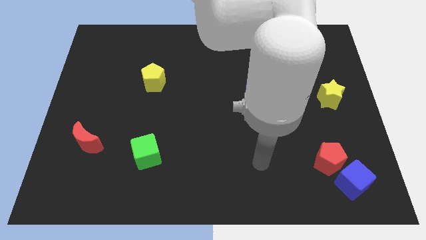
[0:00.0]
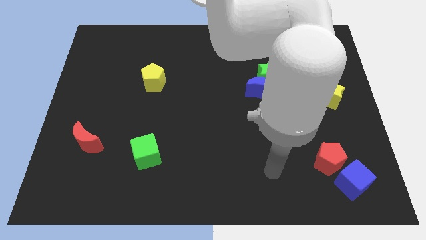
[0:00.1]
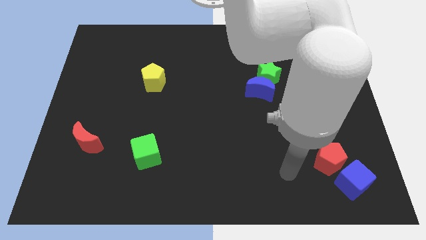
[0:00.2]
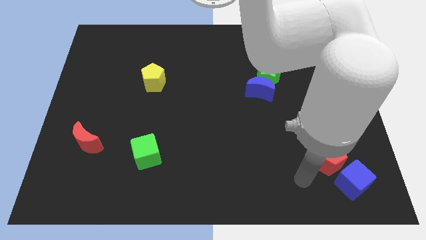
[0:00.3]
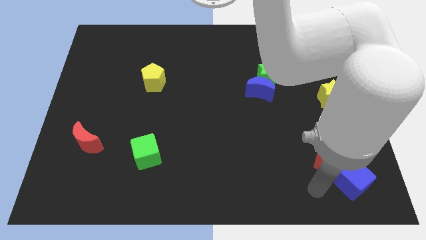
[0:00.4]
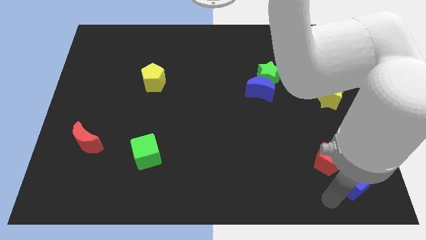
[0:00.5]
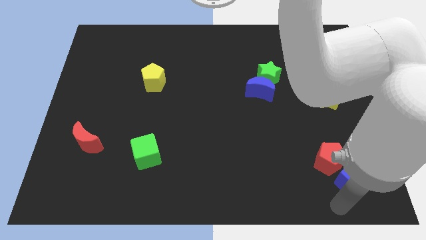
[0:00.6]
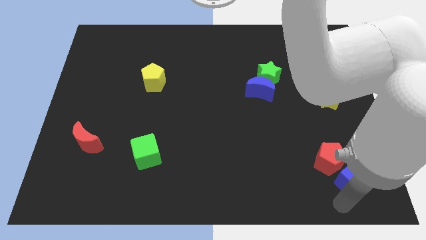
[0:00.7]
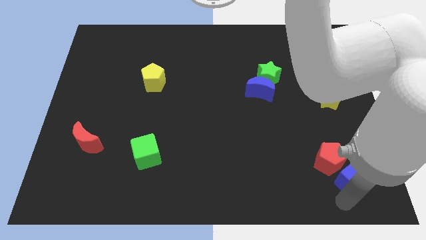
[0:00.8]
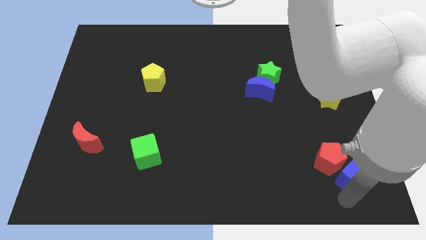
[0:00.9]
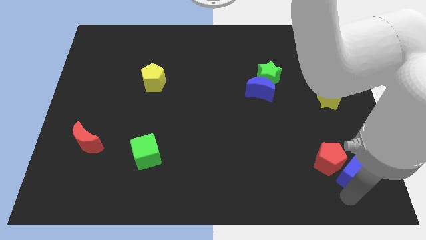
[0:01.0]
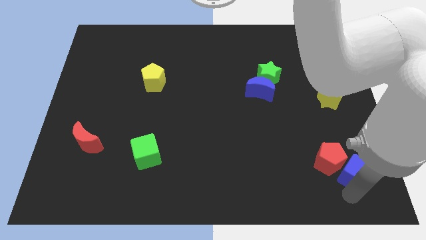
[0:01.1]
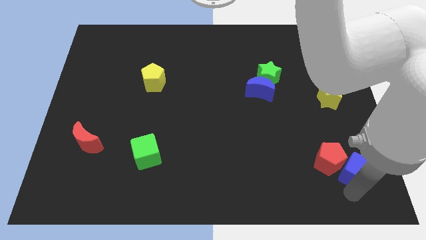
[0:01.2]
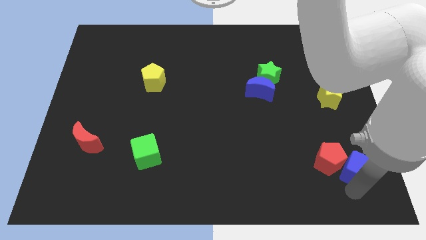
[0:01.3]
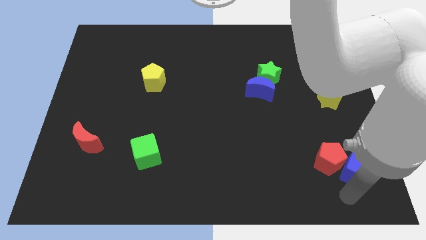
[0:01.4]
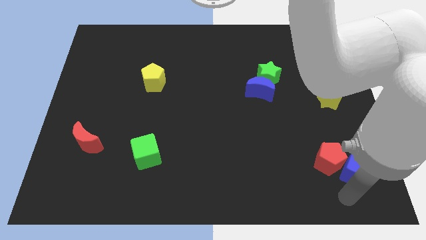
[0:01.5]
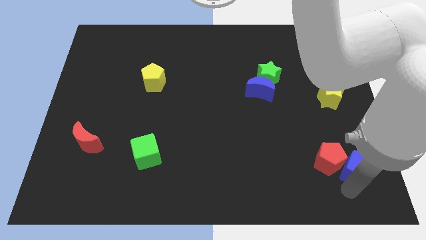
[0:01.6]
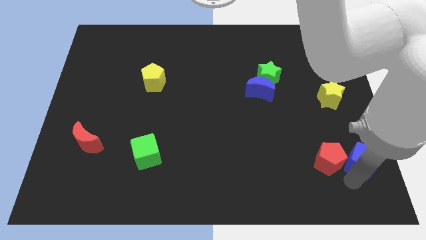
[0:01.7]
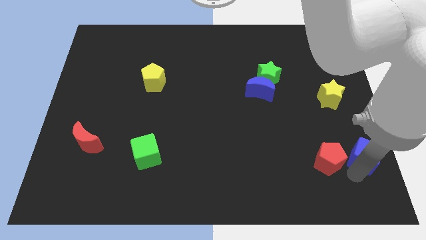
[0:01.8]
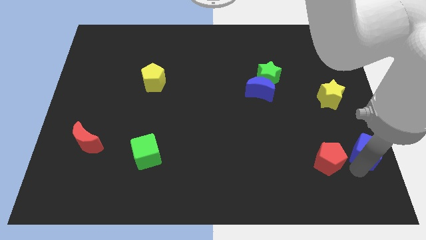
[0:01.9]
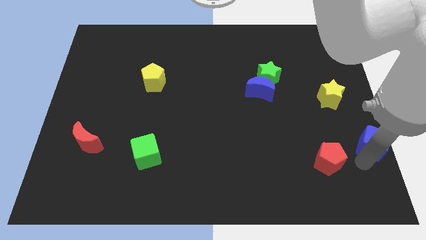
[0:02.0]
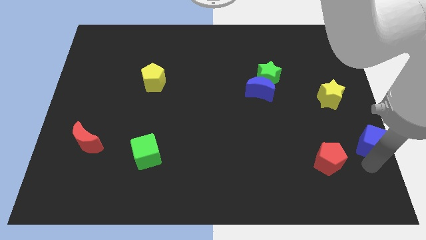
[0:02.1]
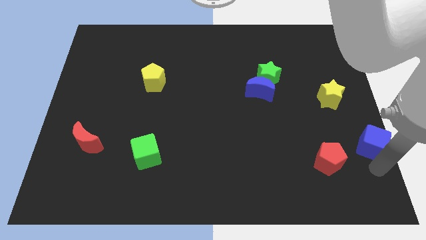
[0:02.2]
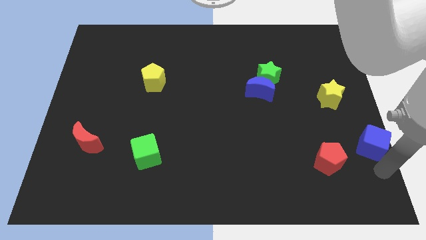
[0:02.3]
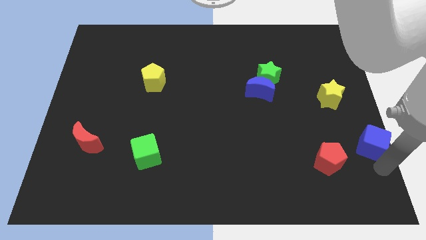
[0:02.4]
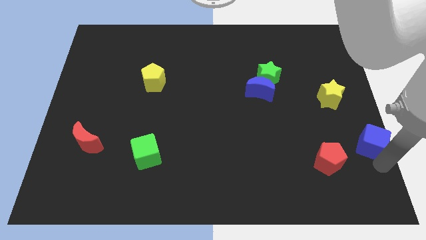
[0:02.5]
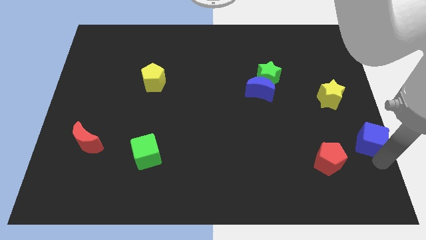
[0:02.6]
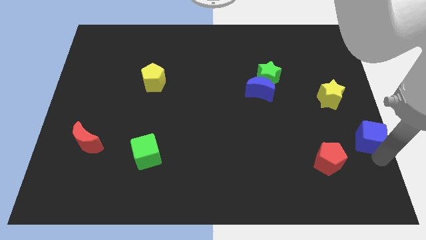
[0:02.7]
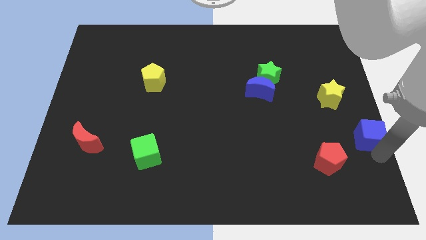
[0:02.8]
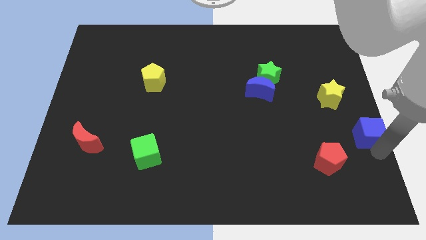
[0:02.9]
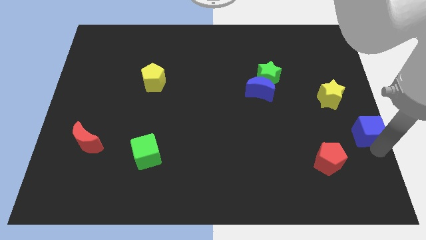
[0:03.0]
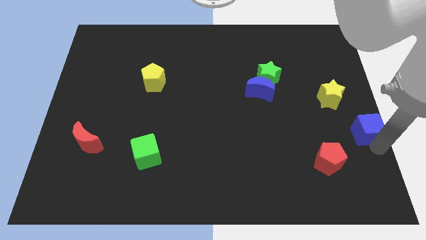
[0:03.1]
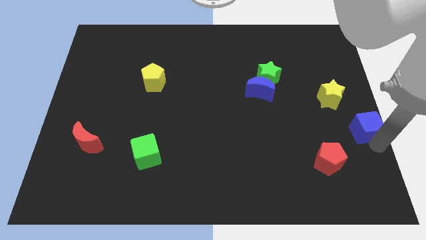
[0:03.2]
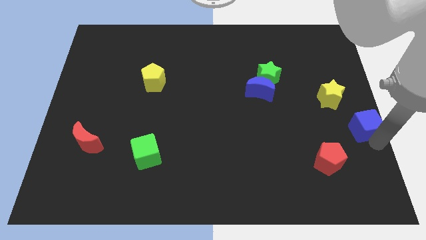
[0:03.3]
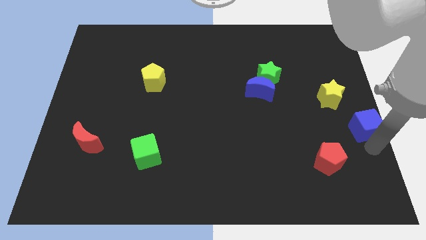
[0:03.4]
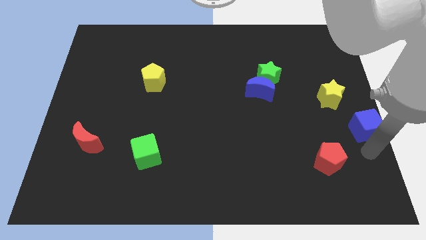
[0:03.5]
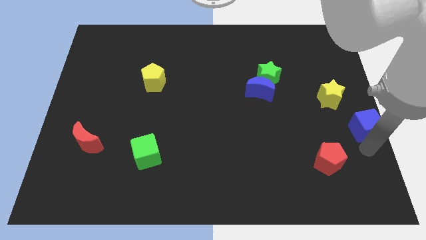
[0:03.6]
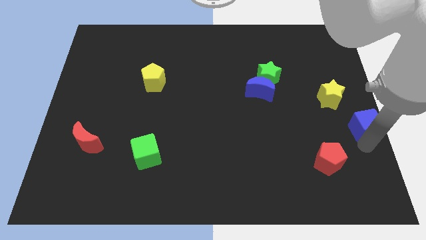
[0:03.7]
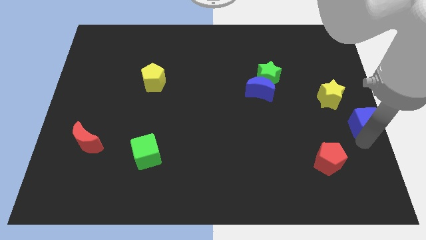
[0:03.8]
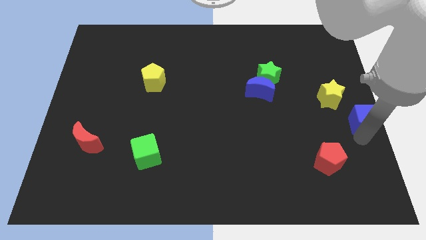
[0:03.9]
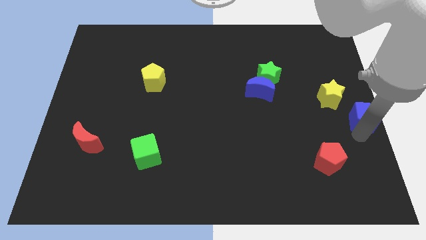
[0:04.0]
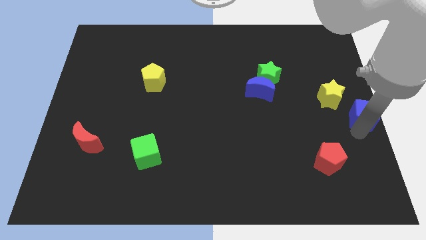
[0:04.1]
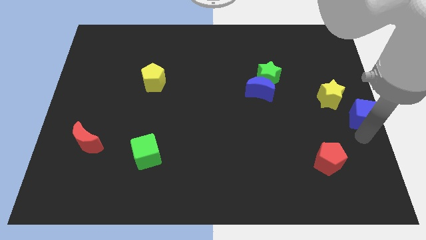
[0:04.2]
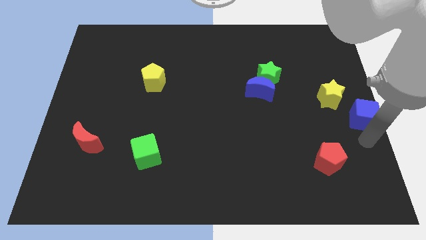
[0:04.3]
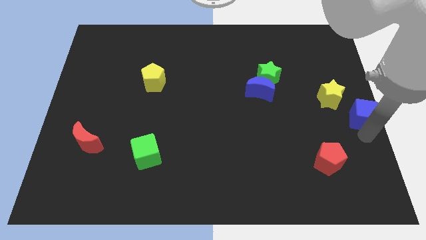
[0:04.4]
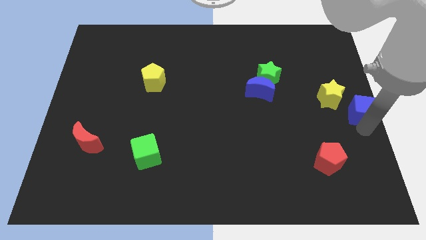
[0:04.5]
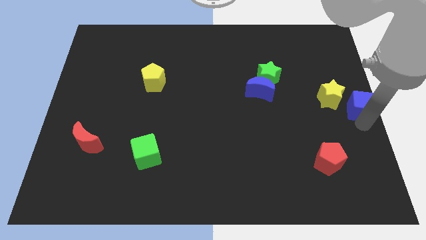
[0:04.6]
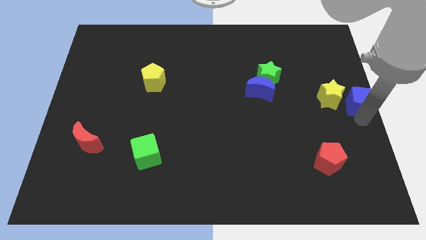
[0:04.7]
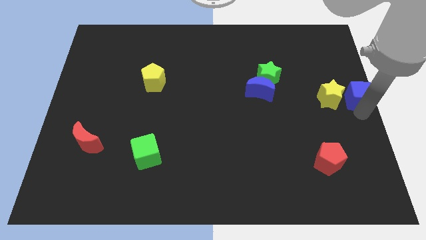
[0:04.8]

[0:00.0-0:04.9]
push the blue cube up

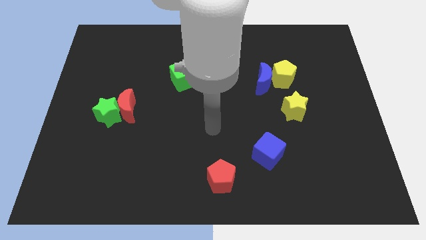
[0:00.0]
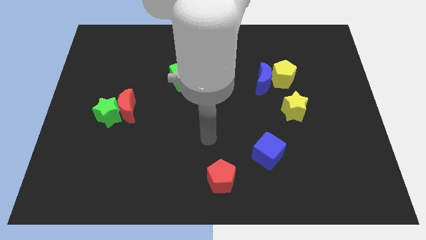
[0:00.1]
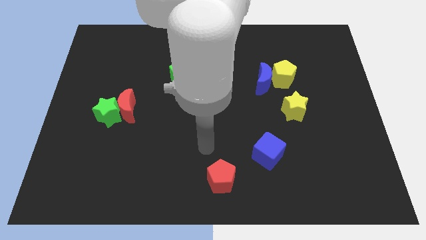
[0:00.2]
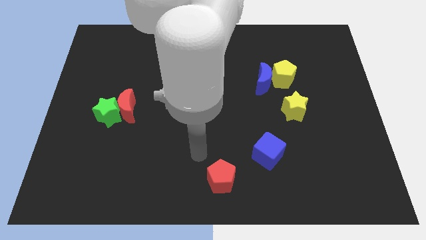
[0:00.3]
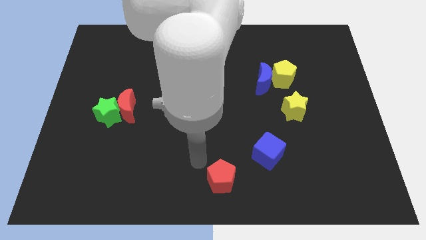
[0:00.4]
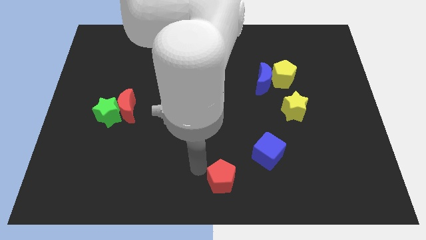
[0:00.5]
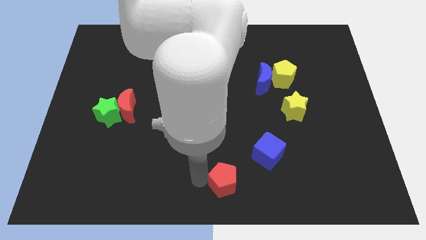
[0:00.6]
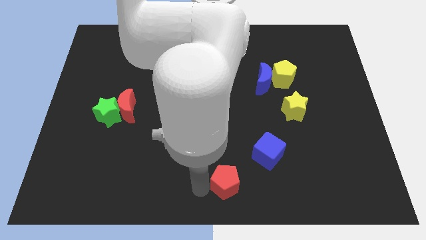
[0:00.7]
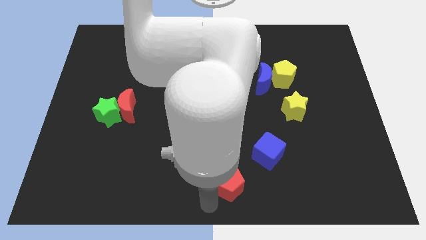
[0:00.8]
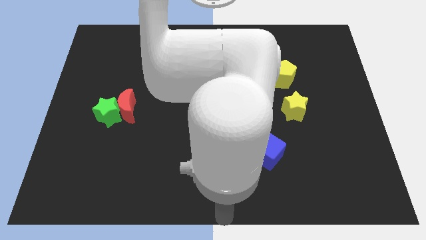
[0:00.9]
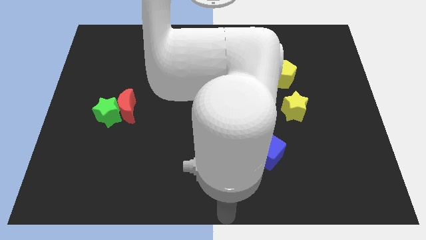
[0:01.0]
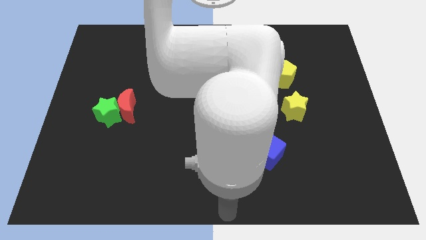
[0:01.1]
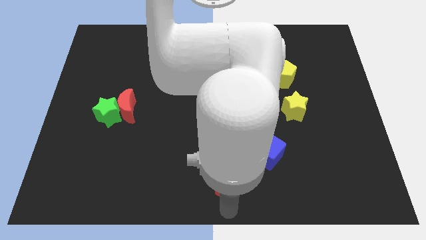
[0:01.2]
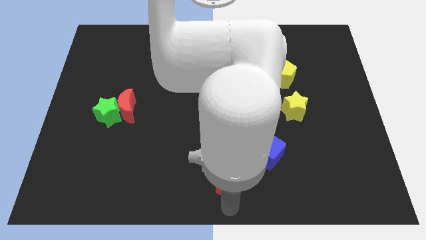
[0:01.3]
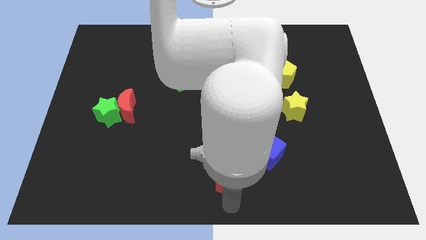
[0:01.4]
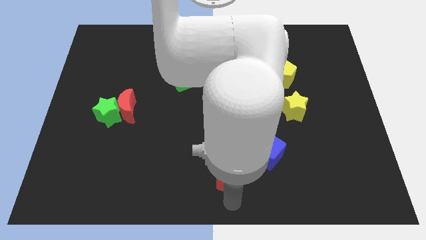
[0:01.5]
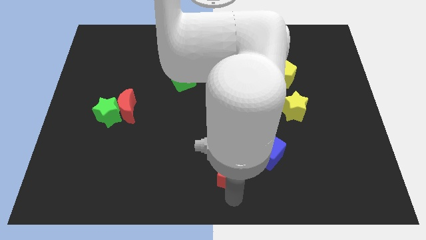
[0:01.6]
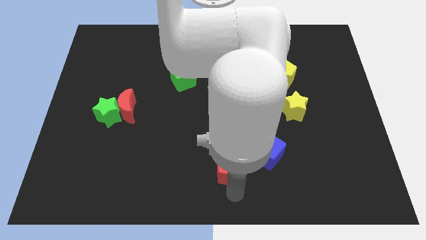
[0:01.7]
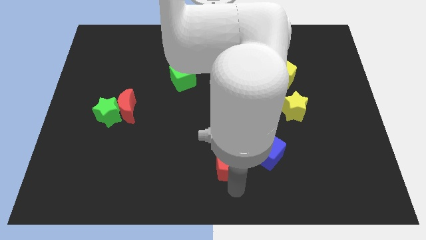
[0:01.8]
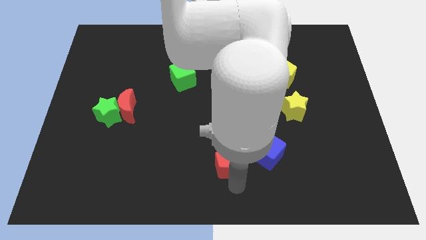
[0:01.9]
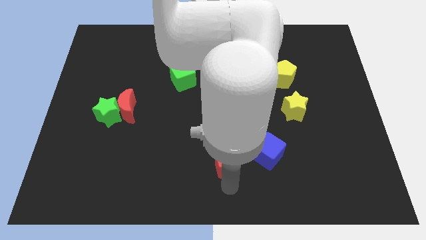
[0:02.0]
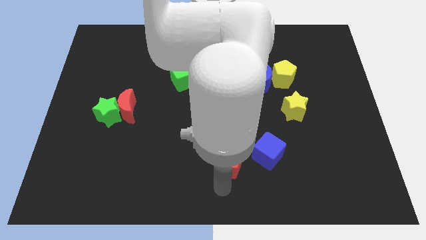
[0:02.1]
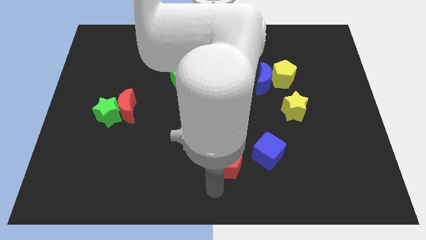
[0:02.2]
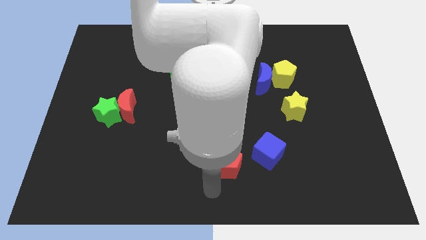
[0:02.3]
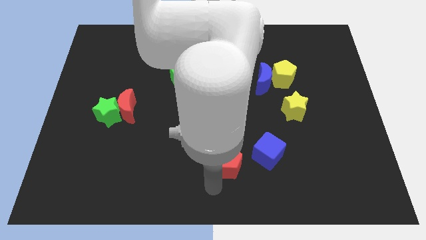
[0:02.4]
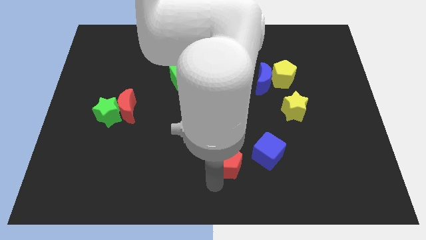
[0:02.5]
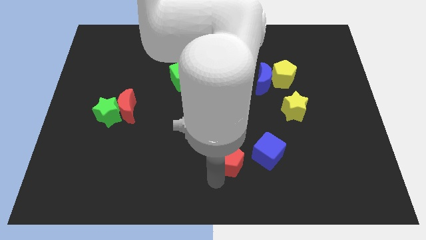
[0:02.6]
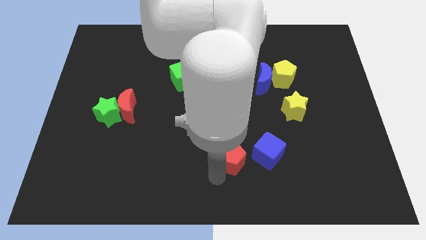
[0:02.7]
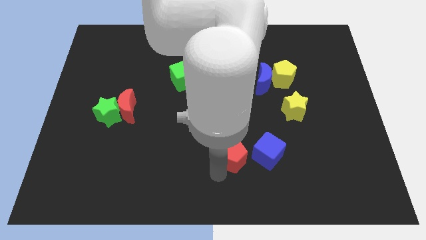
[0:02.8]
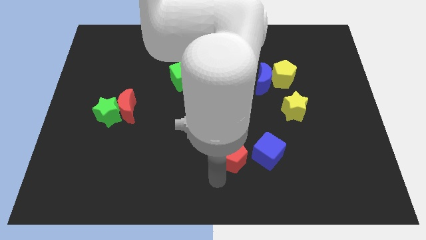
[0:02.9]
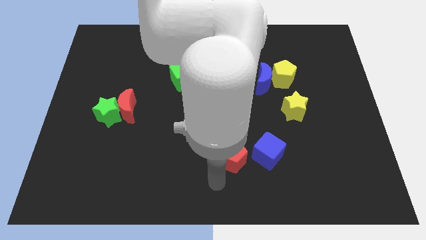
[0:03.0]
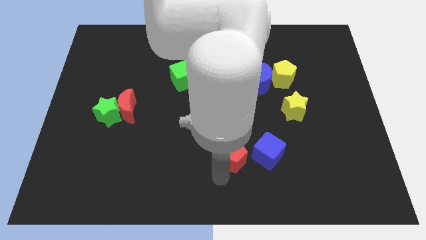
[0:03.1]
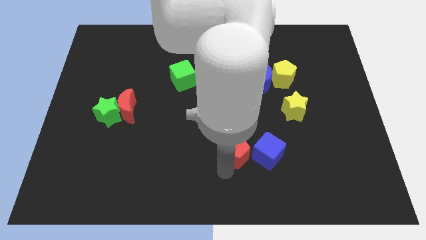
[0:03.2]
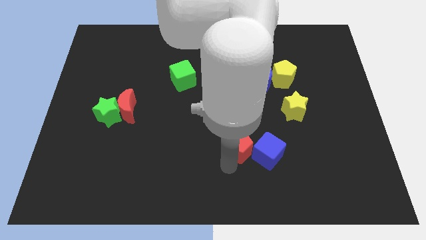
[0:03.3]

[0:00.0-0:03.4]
move the red pentagon upwards and then right a little bit
